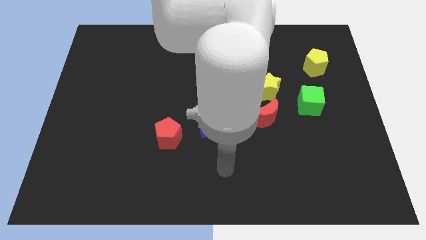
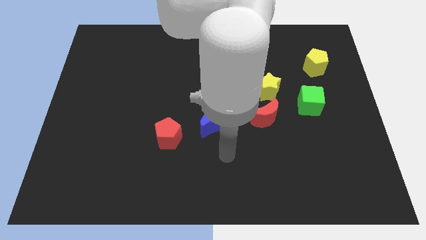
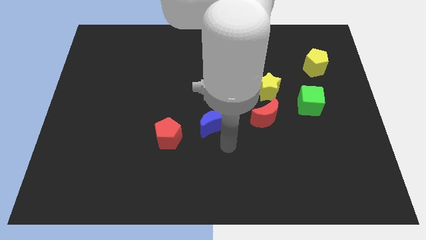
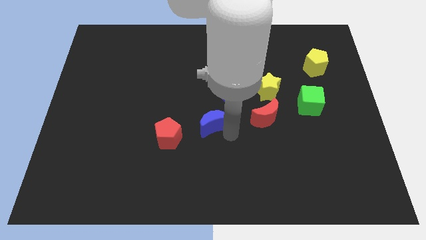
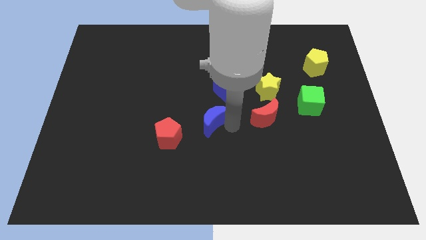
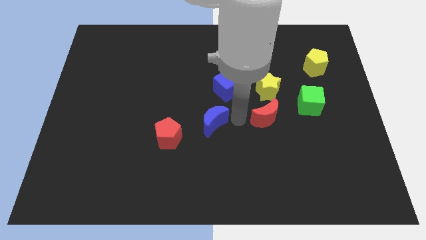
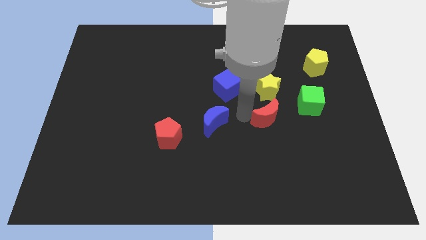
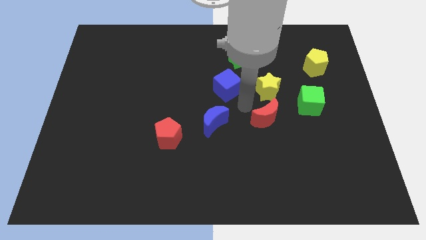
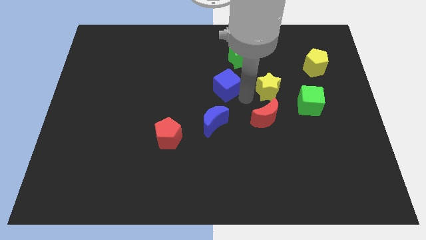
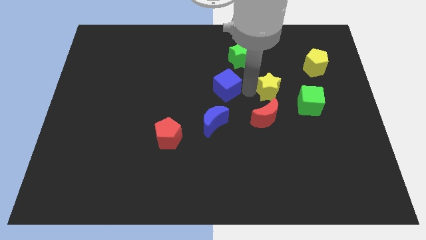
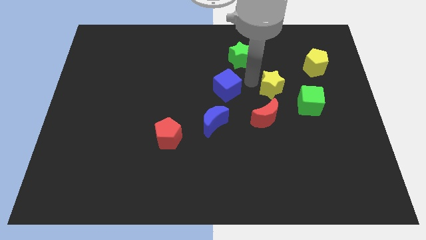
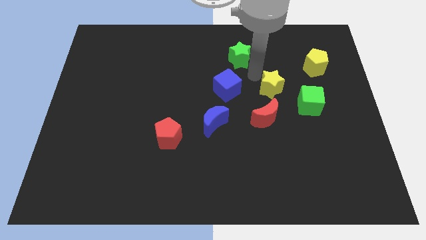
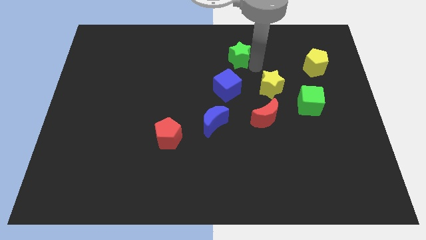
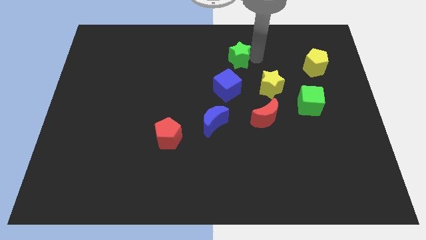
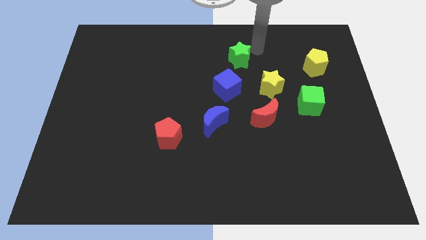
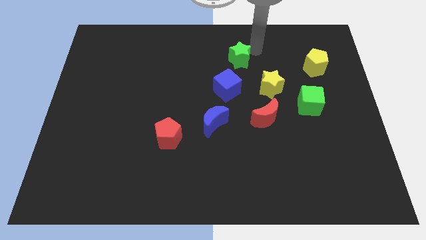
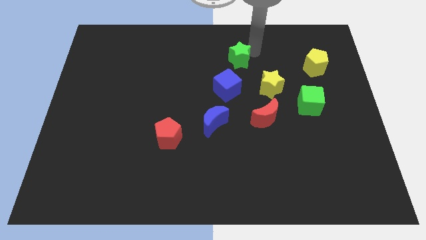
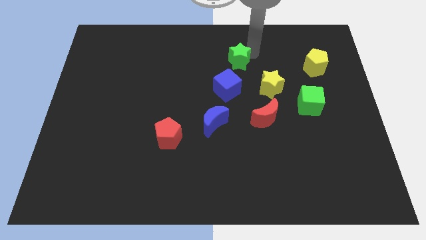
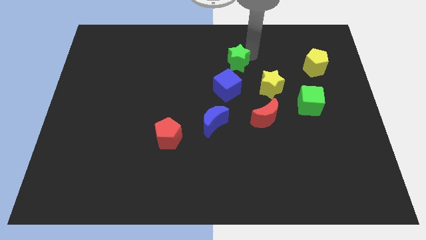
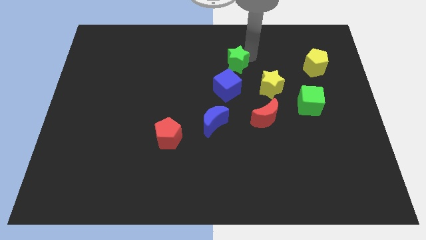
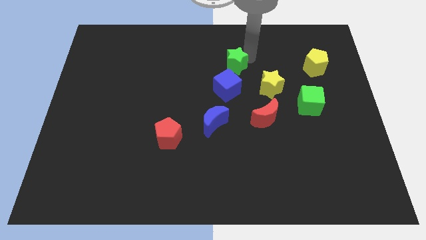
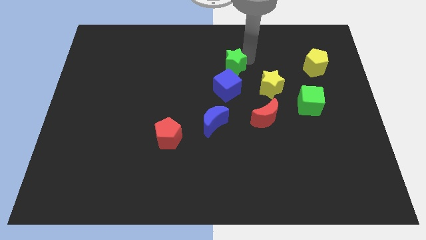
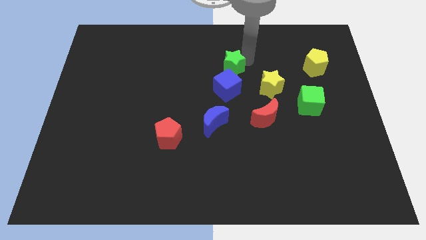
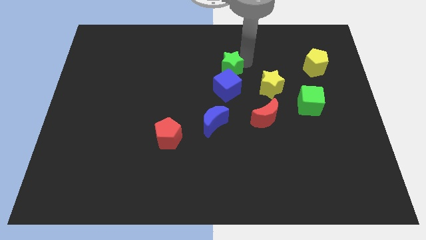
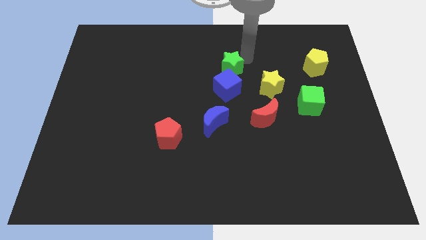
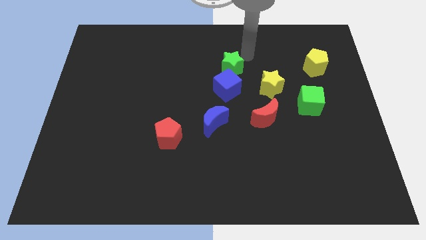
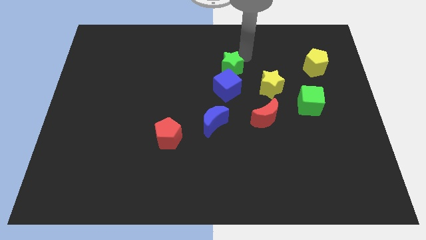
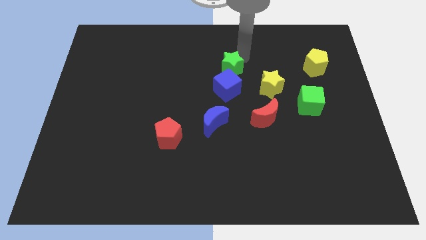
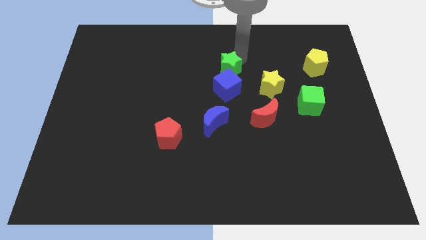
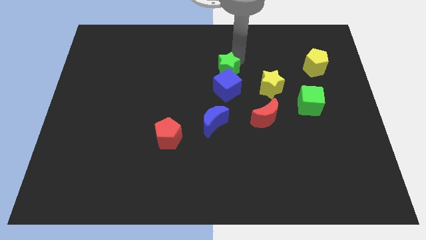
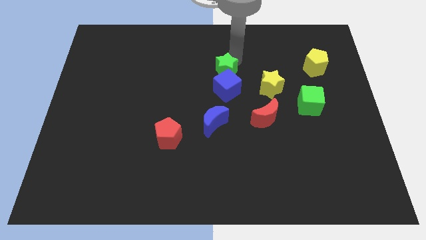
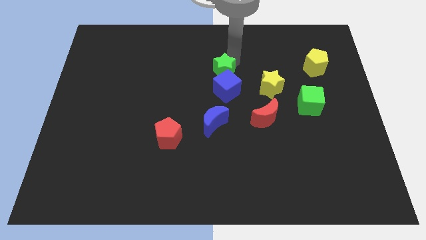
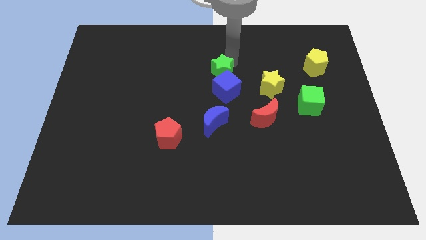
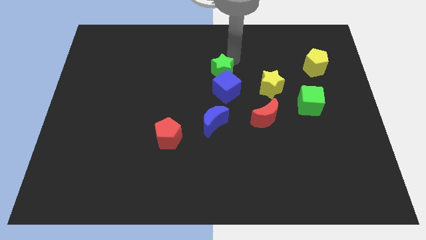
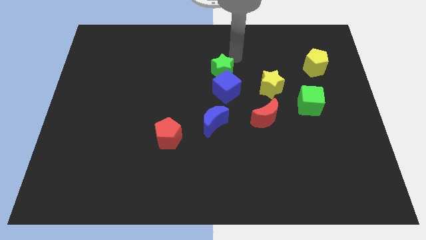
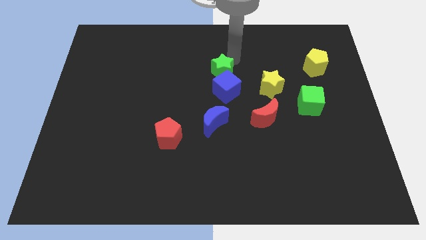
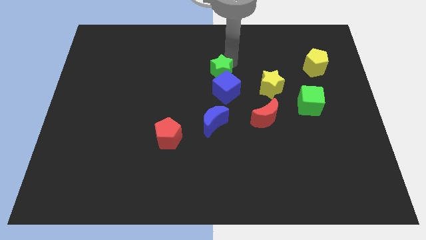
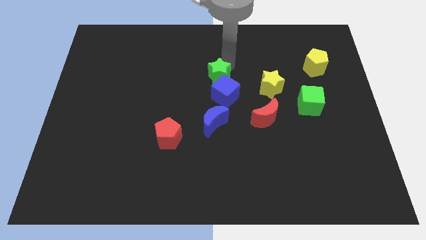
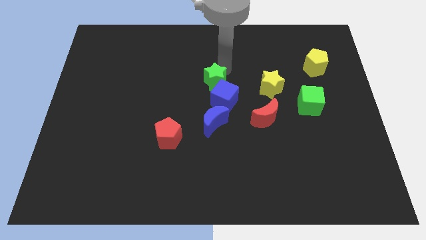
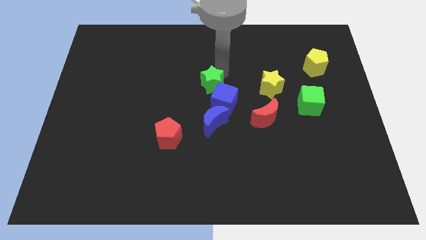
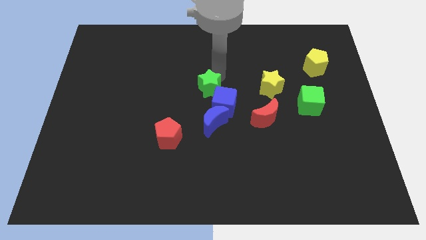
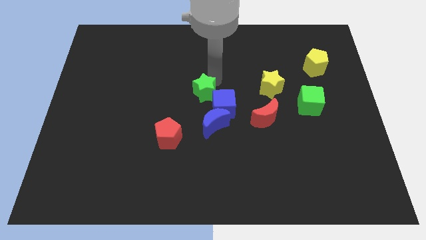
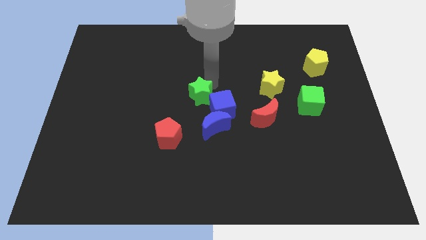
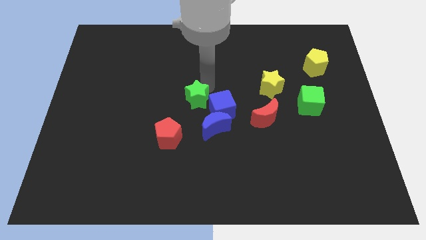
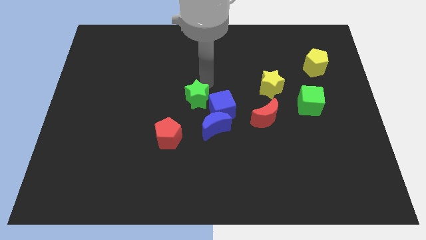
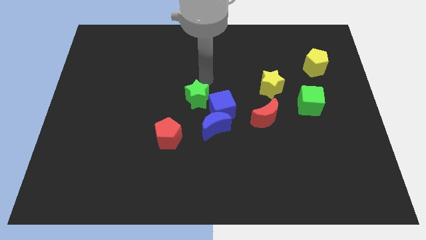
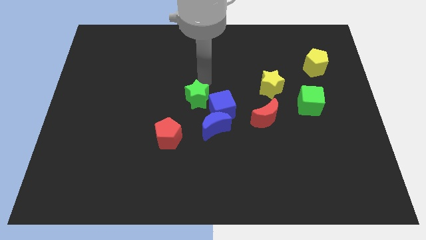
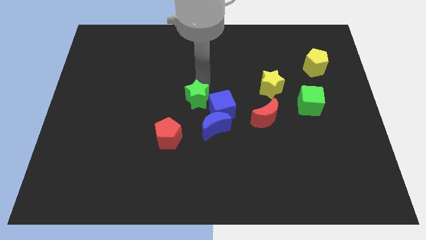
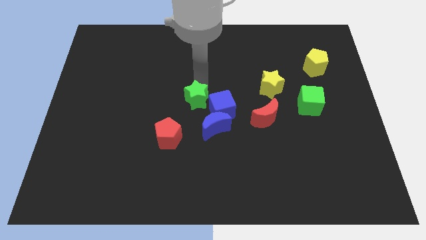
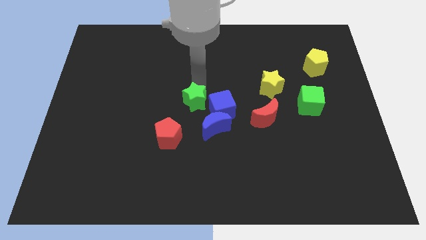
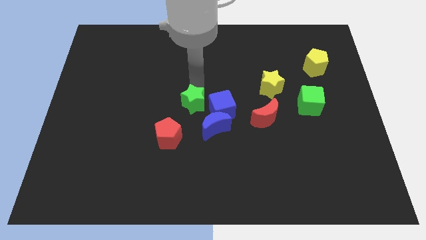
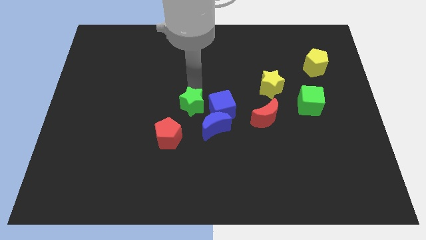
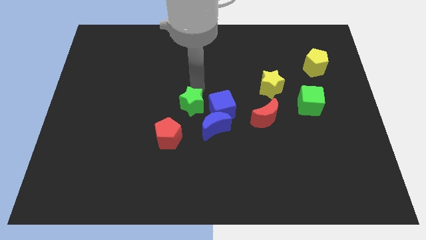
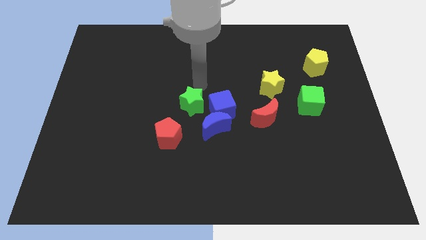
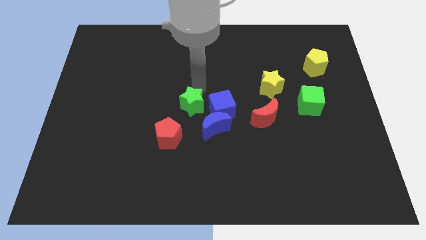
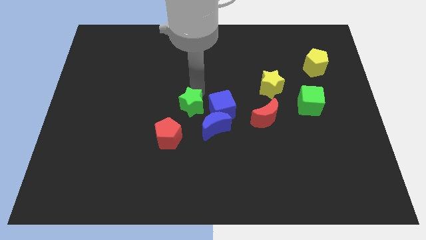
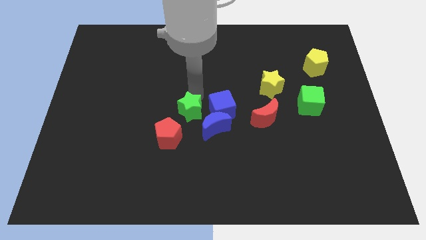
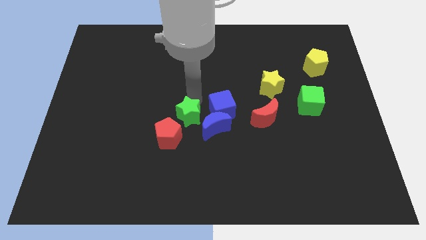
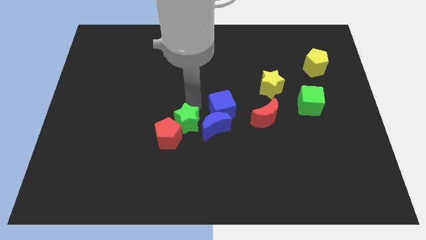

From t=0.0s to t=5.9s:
move the green star to the red pentagon

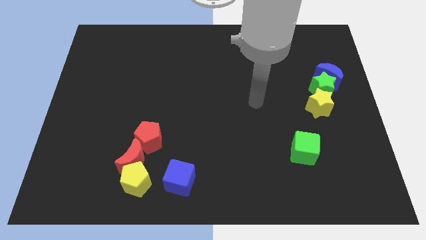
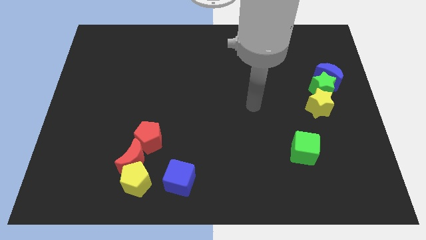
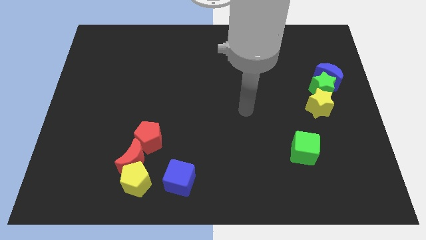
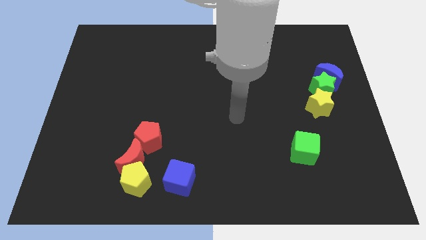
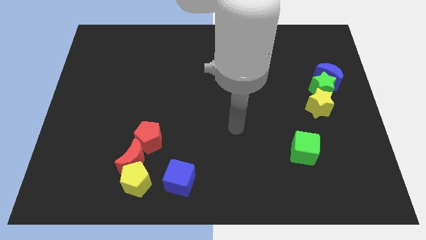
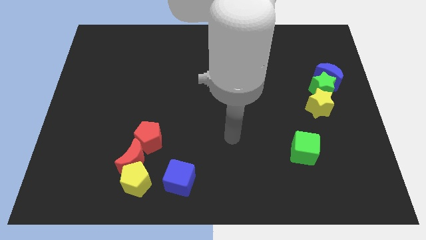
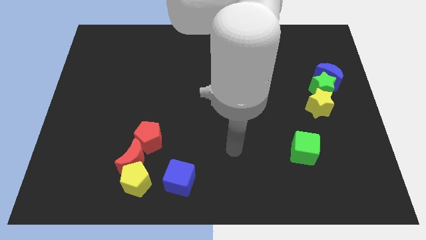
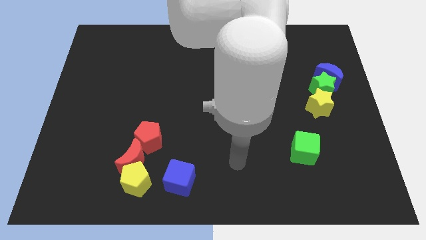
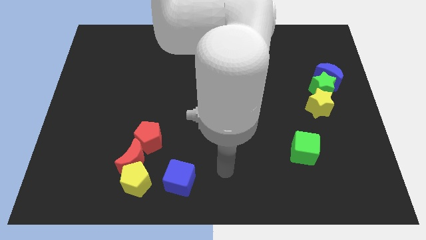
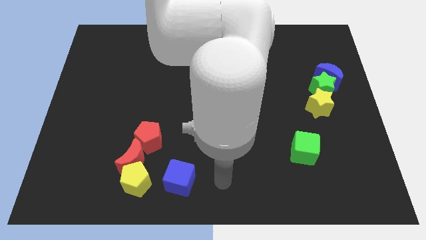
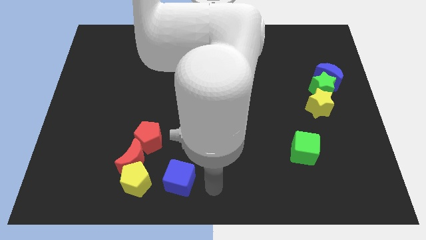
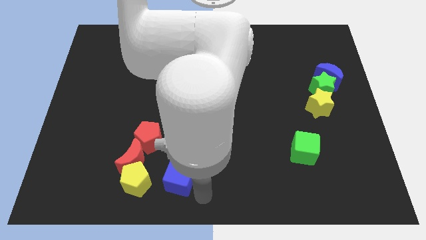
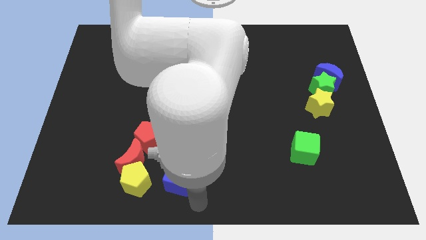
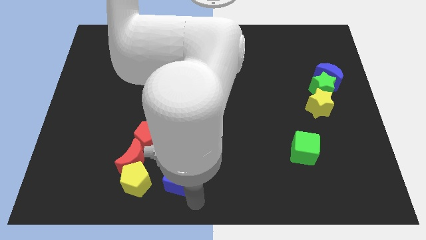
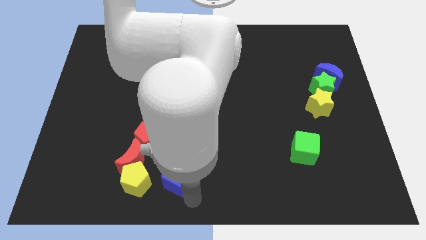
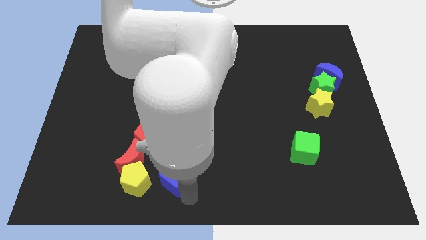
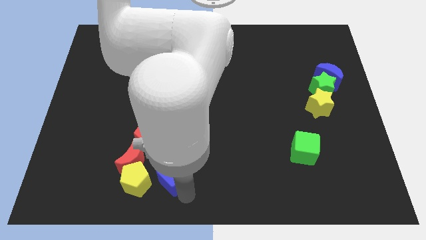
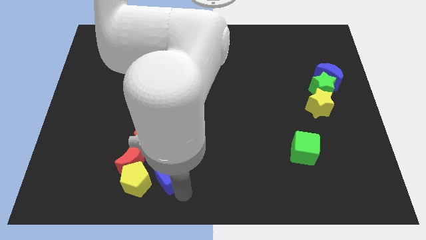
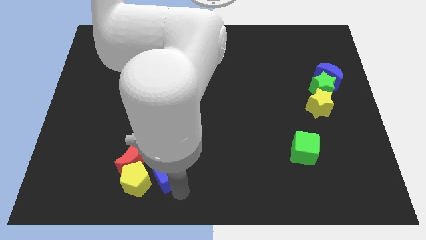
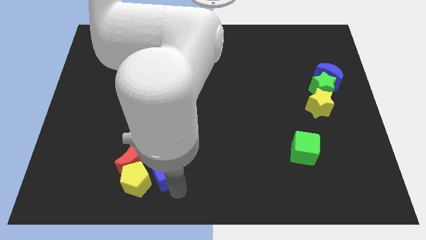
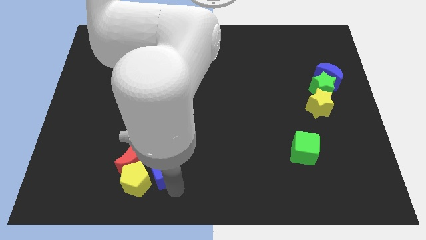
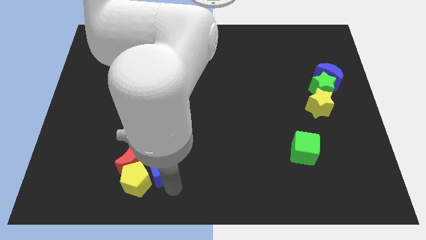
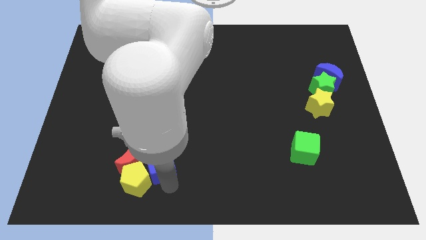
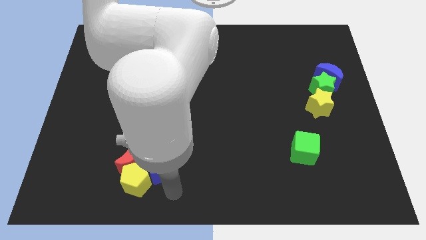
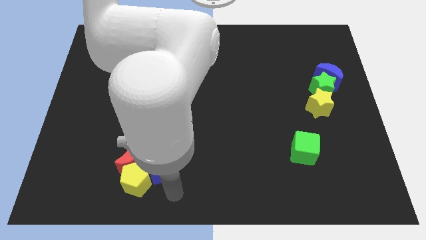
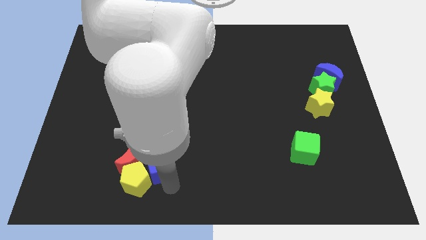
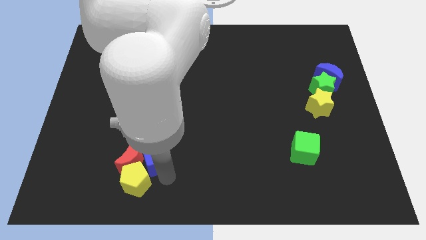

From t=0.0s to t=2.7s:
move the blue cube close to the red pentagon
